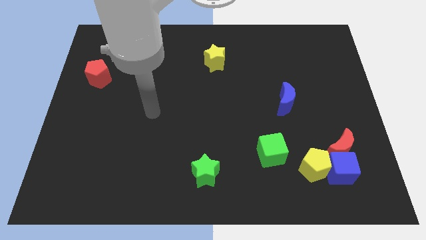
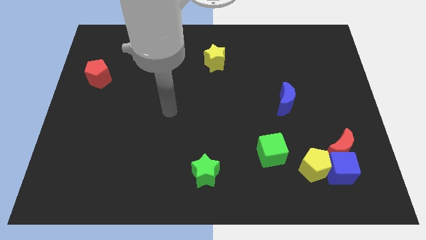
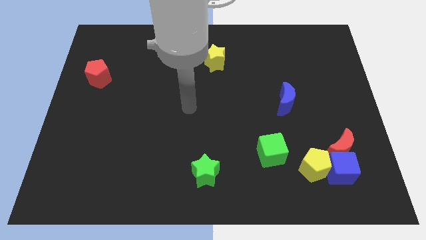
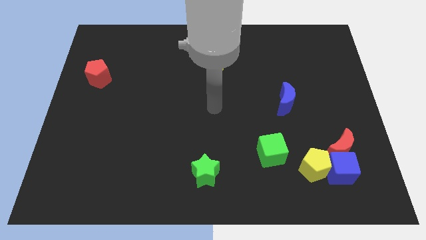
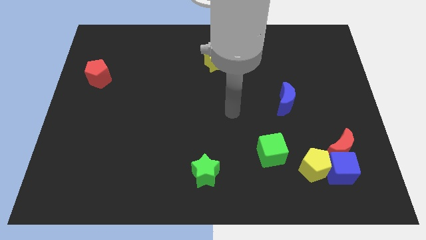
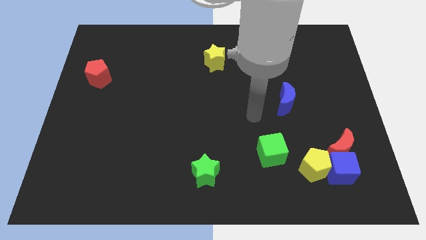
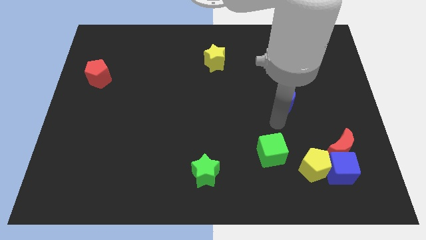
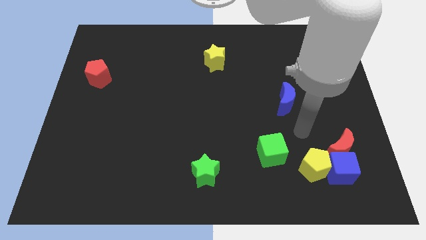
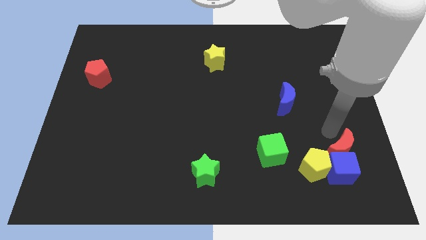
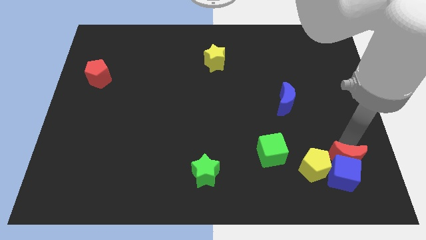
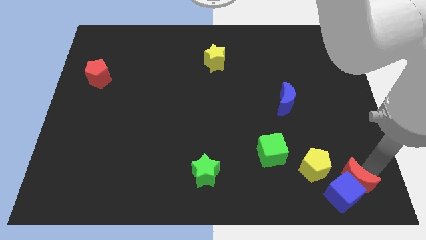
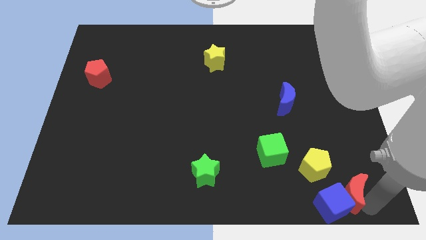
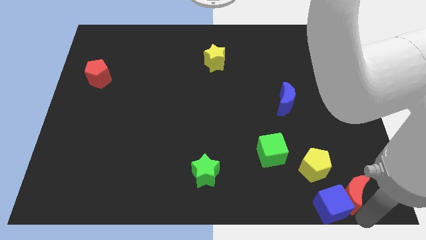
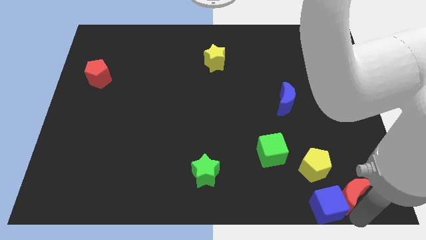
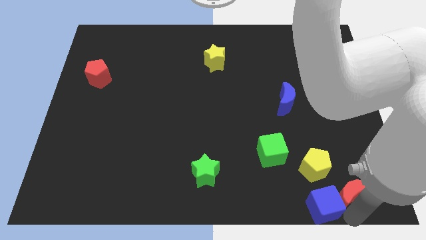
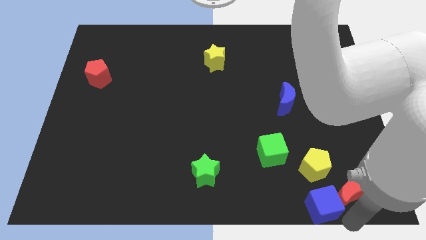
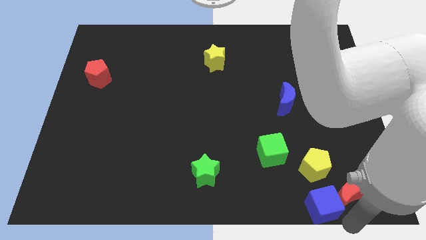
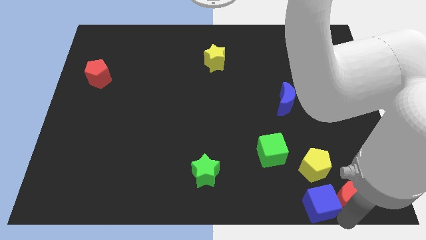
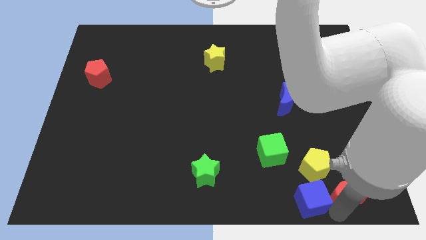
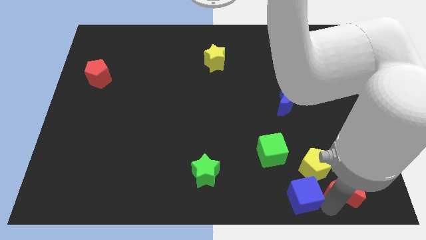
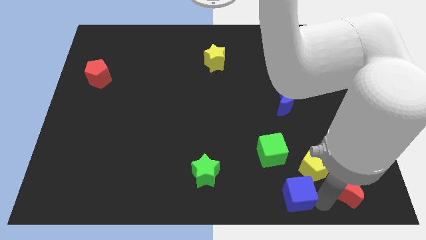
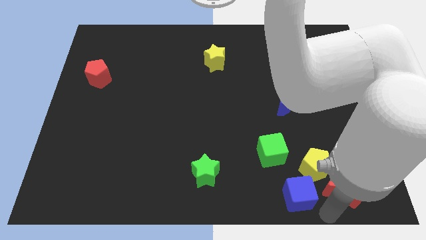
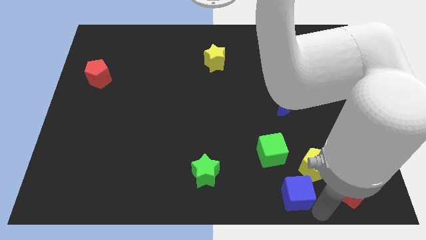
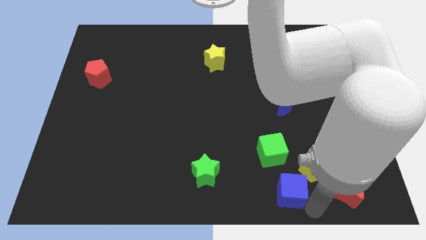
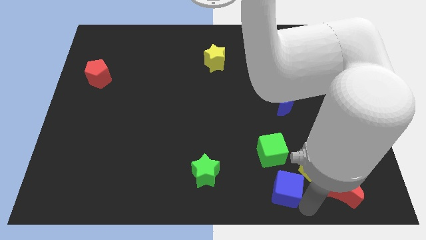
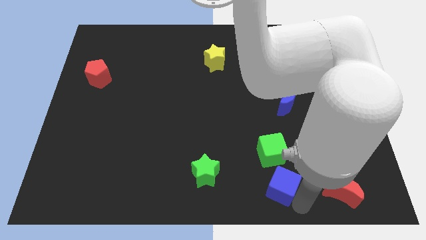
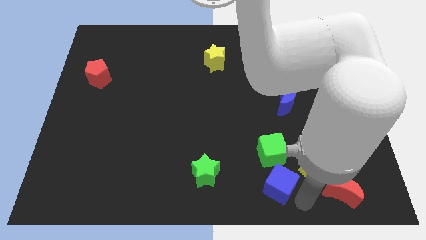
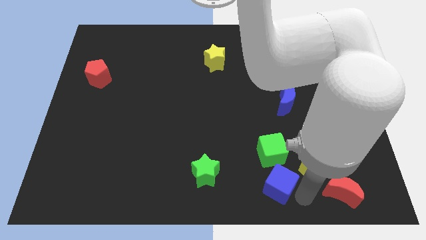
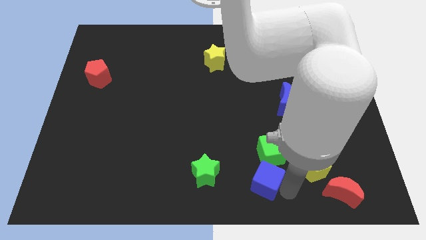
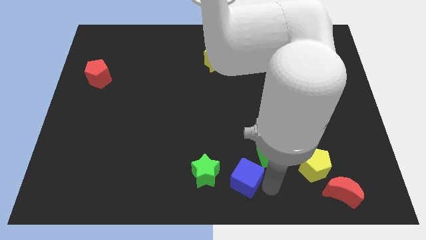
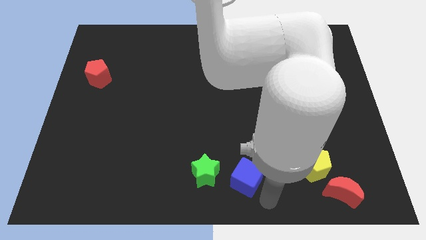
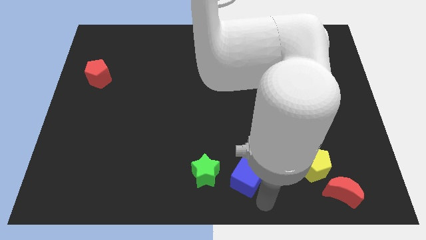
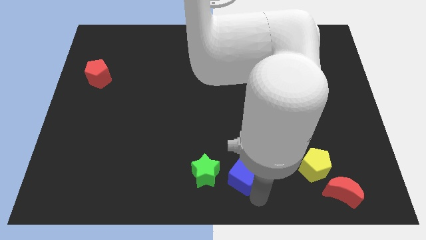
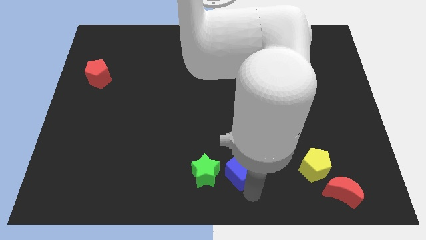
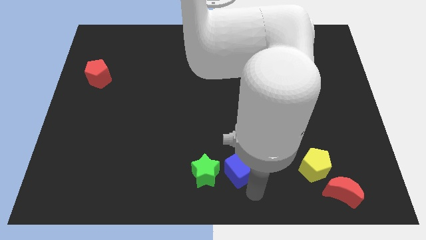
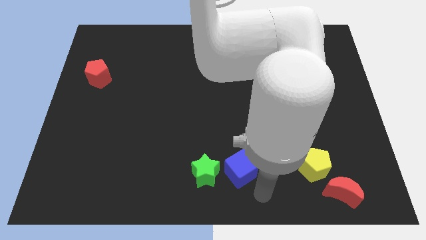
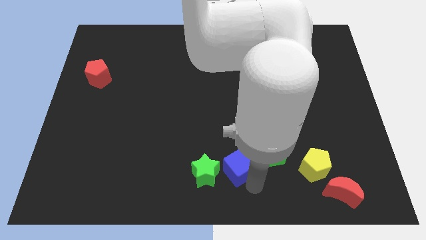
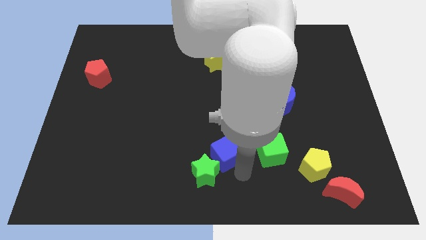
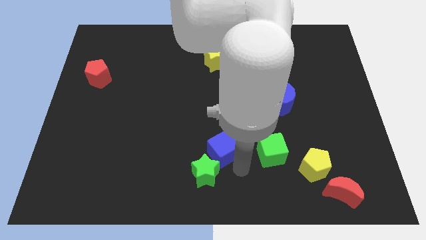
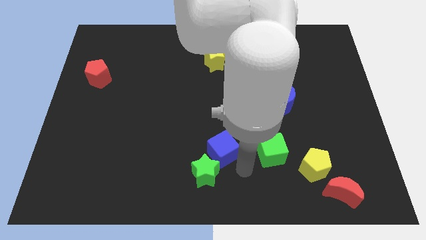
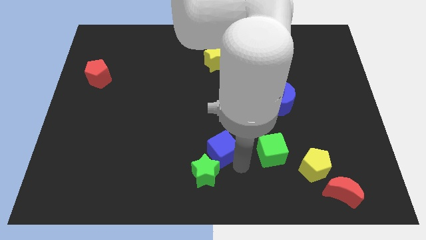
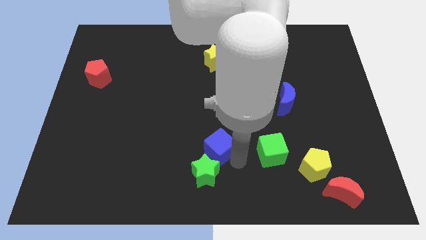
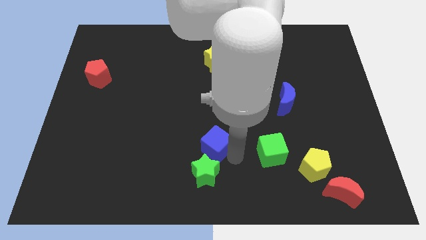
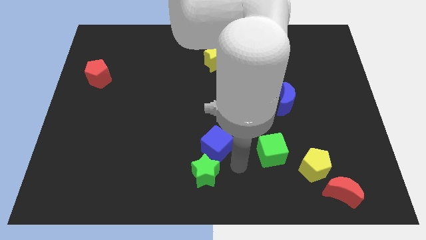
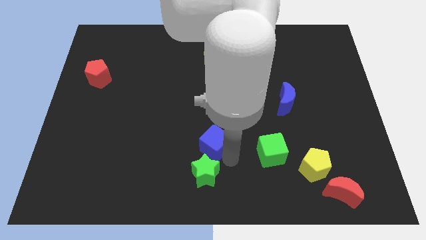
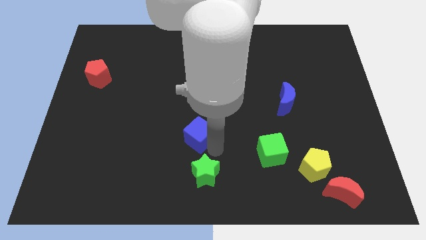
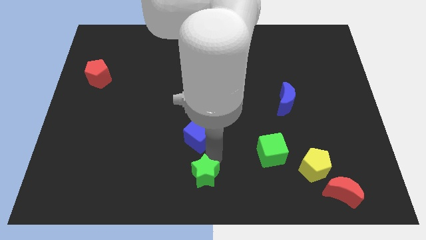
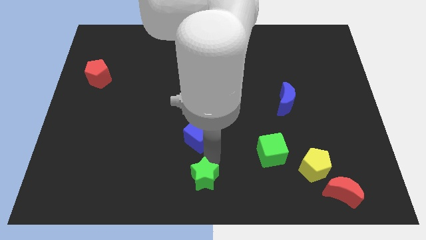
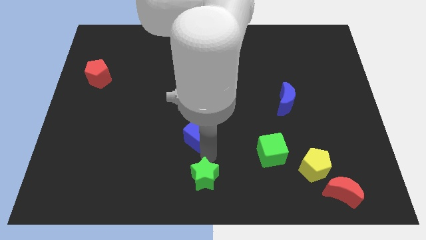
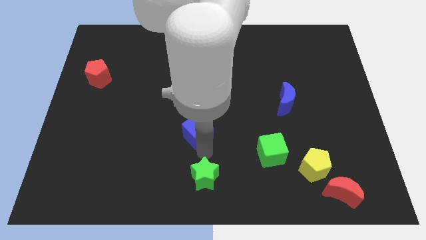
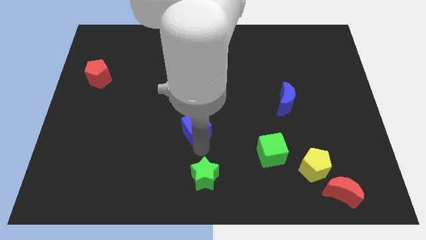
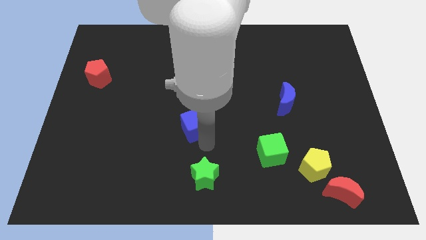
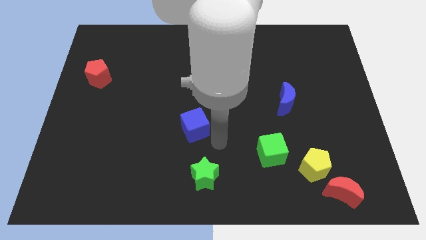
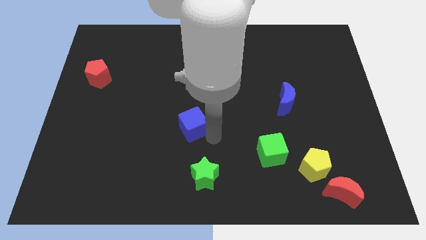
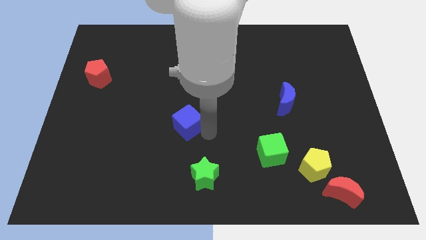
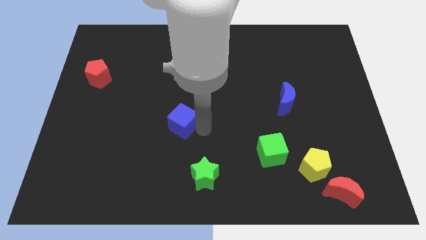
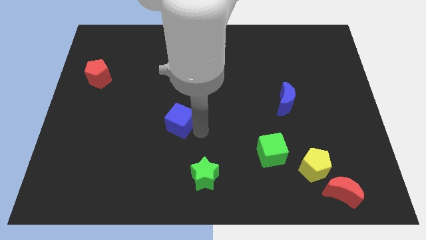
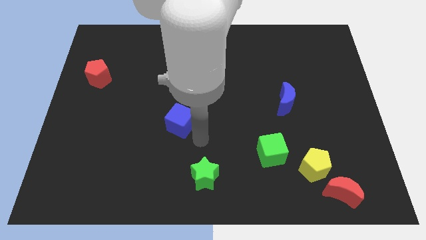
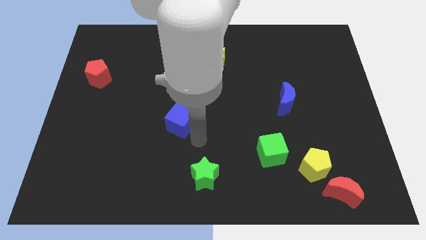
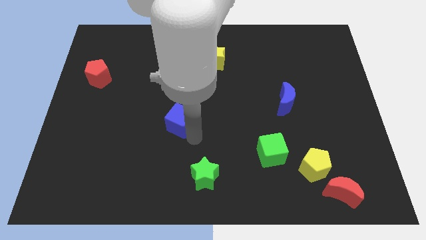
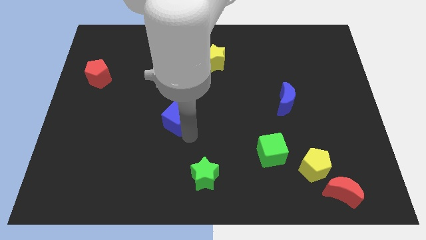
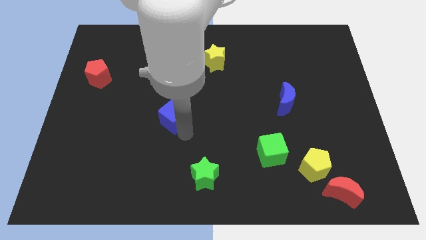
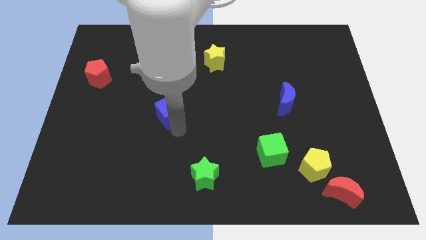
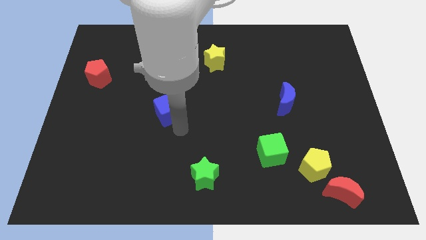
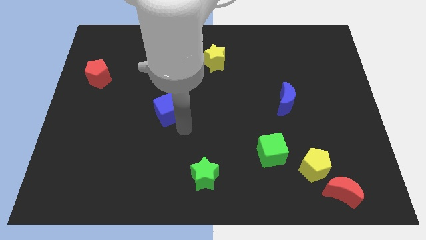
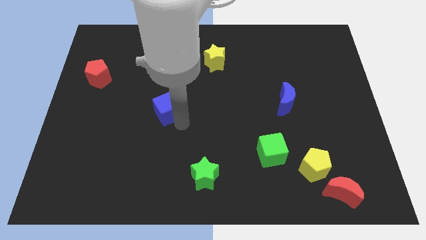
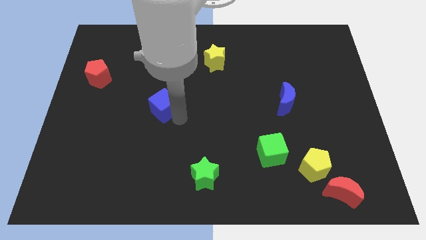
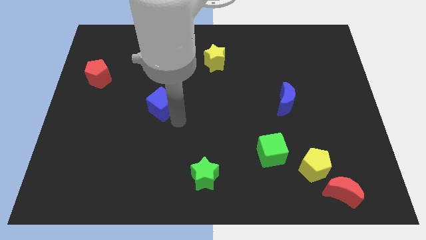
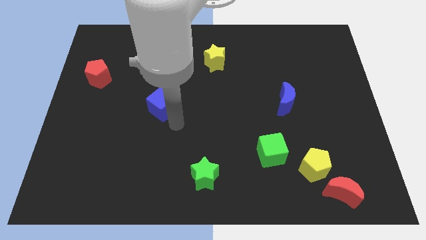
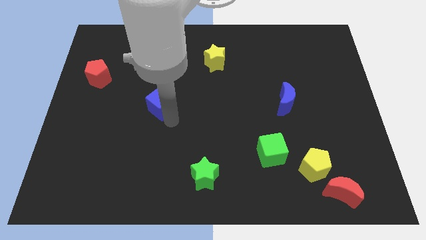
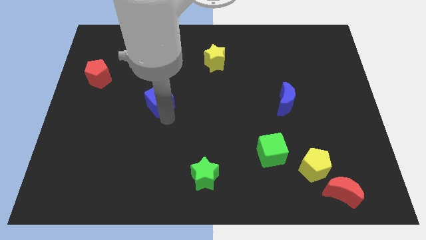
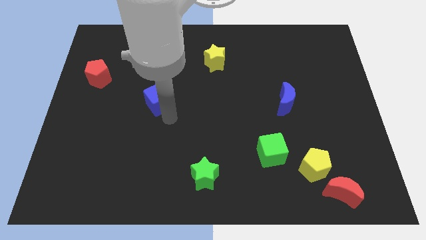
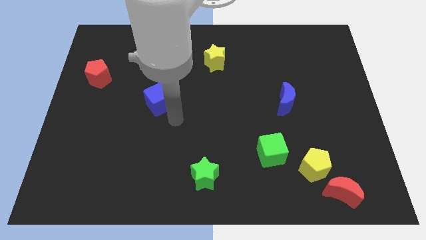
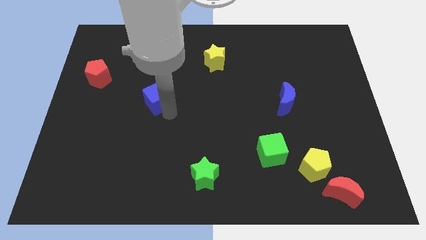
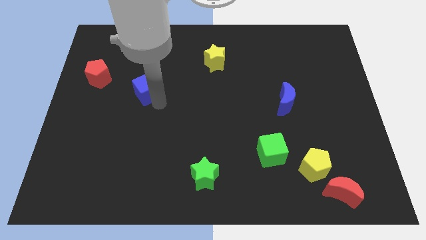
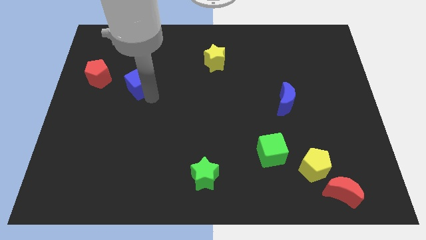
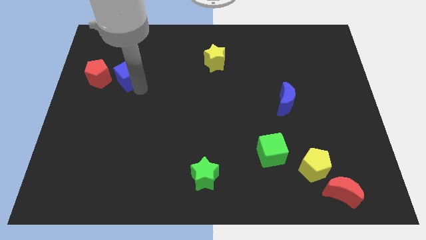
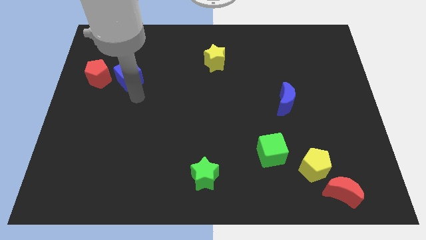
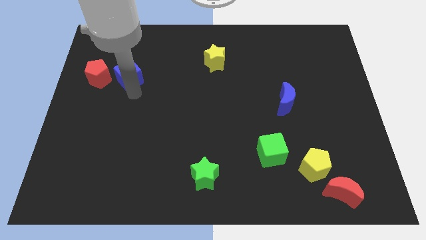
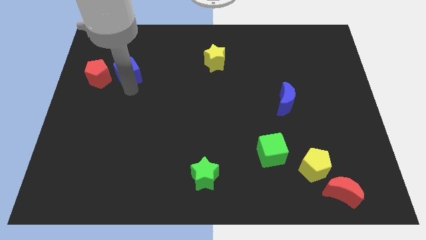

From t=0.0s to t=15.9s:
slide the blue cube to the top right side of the red pentagon
